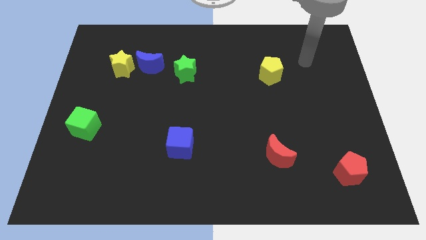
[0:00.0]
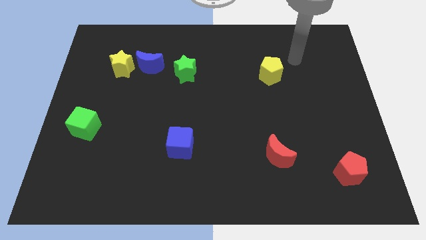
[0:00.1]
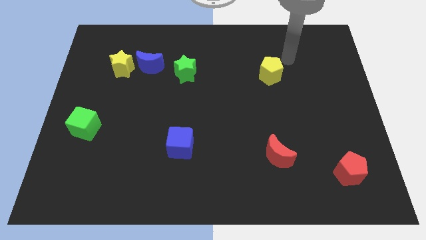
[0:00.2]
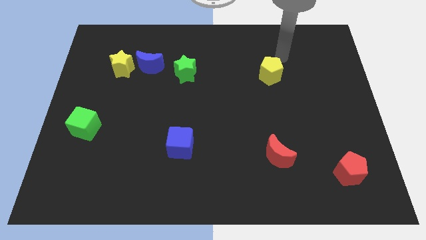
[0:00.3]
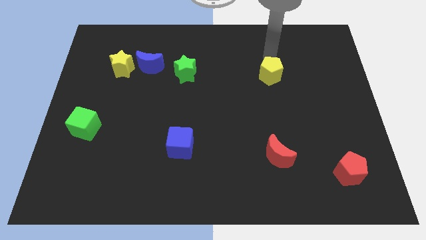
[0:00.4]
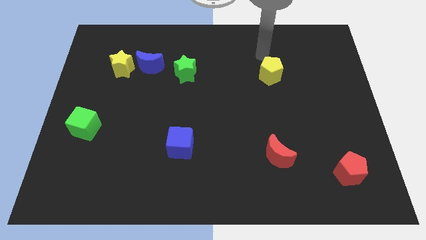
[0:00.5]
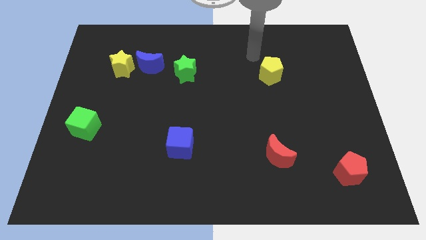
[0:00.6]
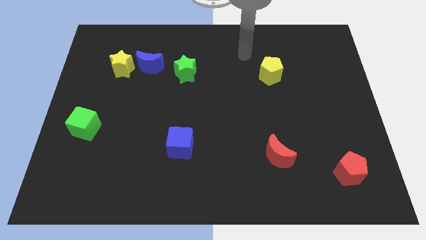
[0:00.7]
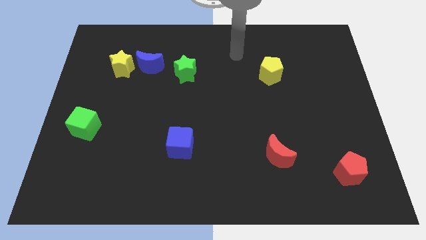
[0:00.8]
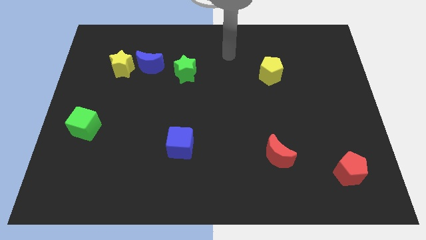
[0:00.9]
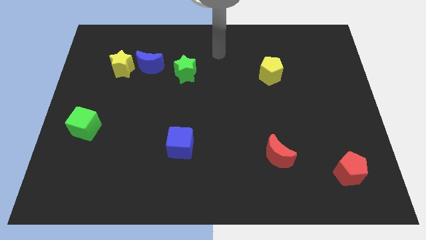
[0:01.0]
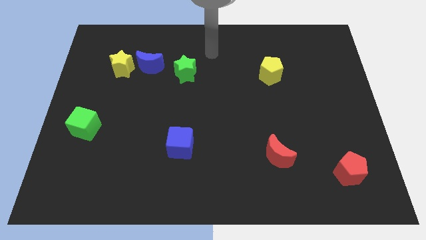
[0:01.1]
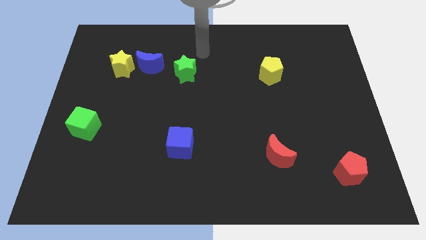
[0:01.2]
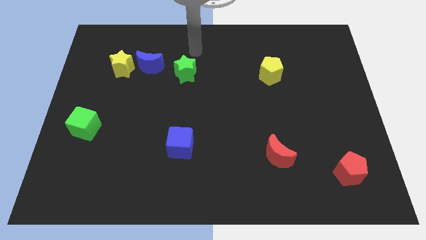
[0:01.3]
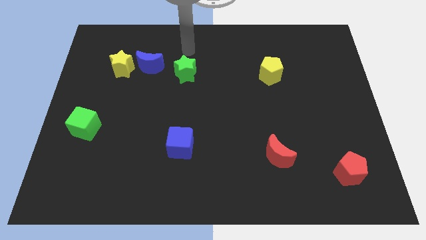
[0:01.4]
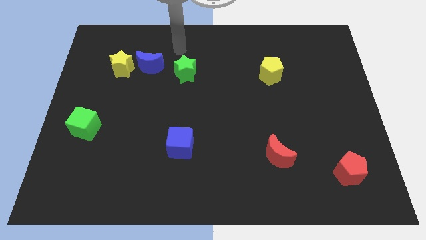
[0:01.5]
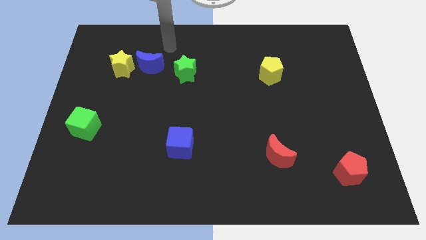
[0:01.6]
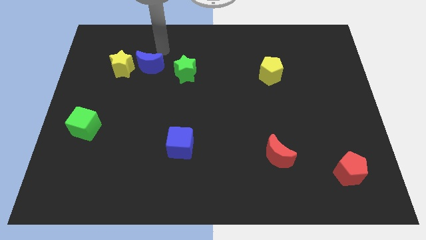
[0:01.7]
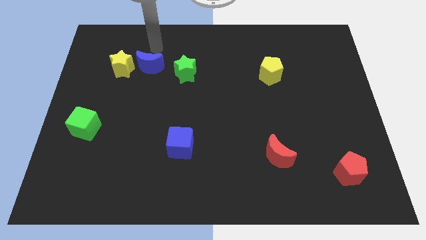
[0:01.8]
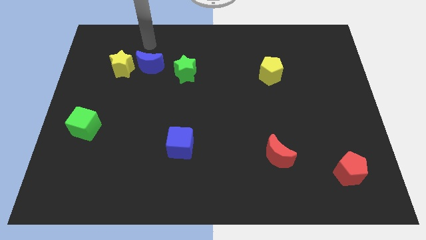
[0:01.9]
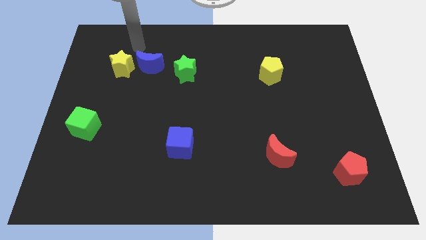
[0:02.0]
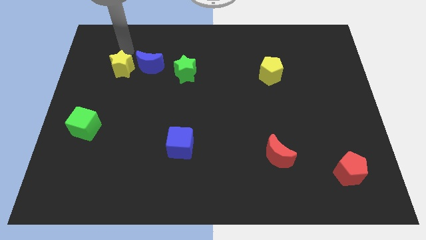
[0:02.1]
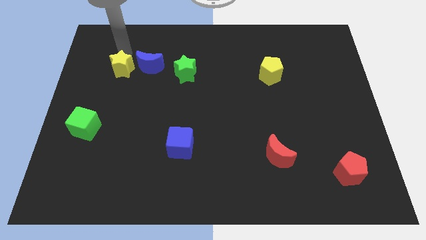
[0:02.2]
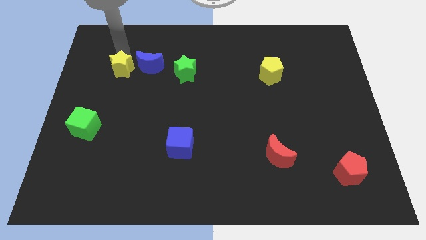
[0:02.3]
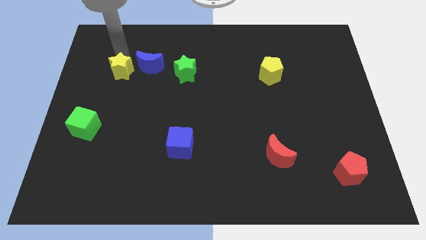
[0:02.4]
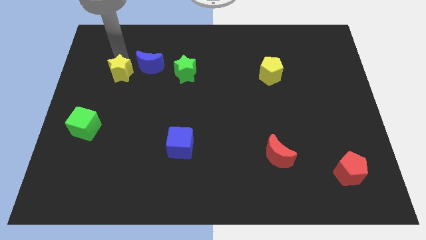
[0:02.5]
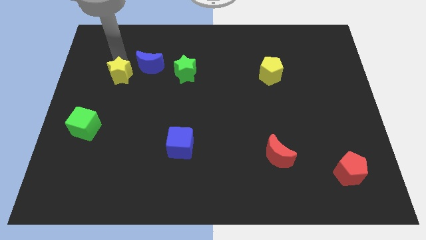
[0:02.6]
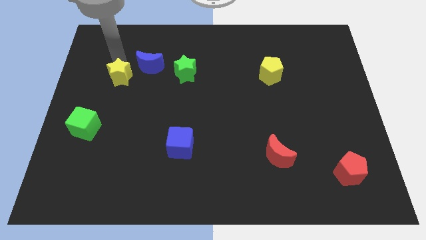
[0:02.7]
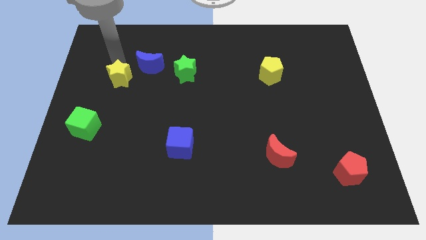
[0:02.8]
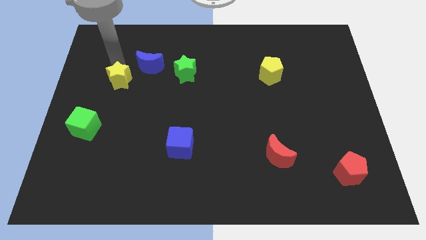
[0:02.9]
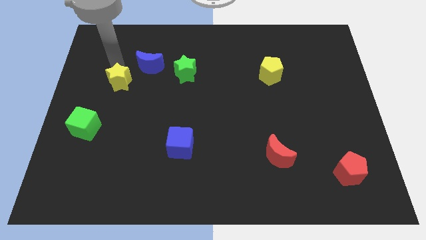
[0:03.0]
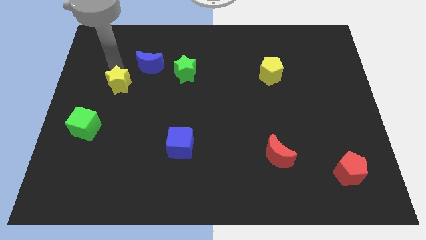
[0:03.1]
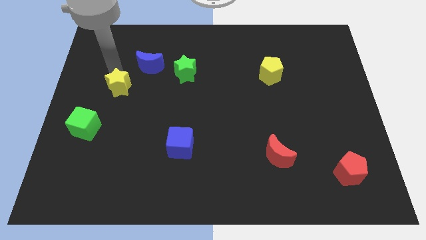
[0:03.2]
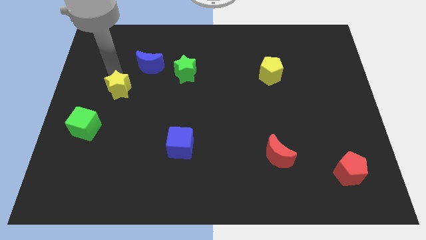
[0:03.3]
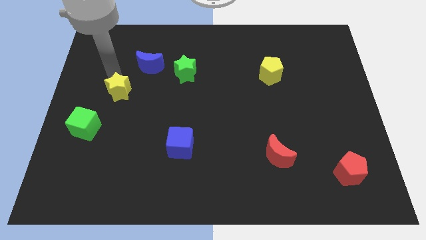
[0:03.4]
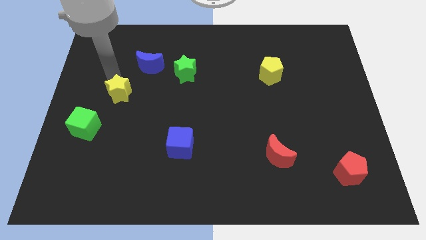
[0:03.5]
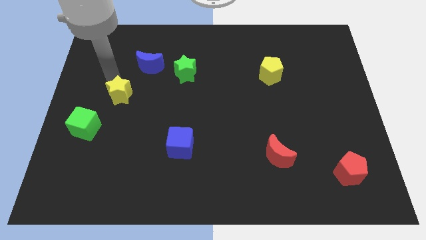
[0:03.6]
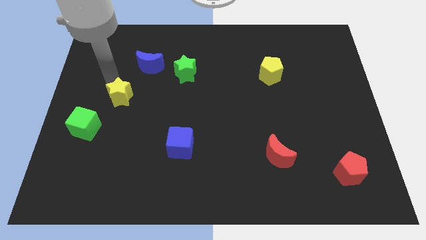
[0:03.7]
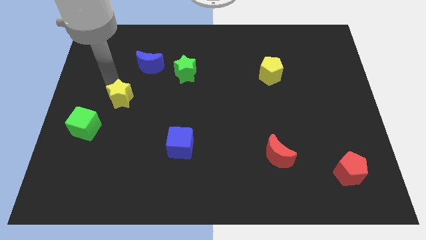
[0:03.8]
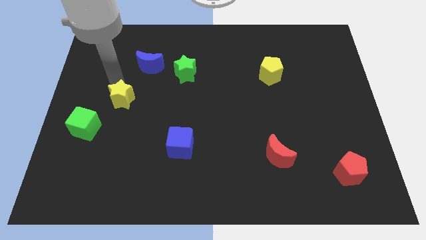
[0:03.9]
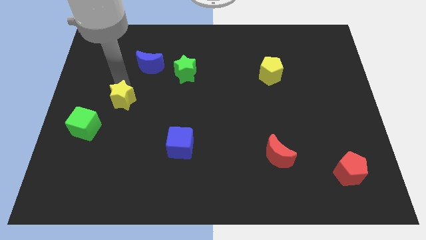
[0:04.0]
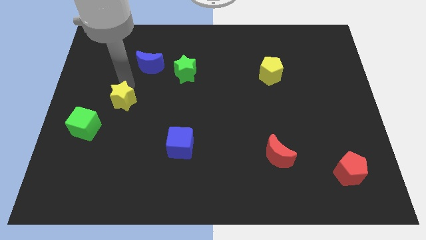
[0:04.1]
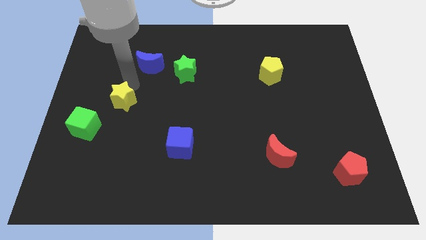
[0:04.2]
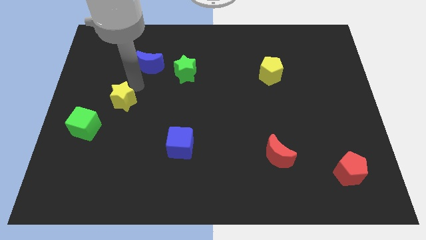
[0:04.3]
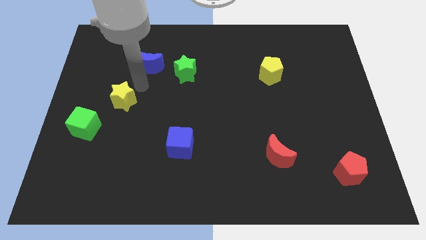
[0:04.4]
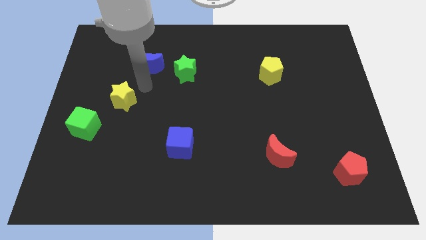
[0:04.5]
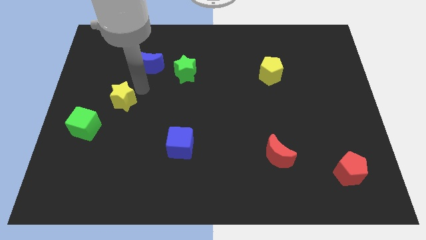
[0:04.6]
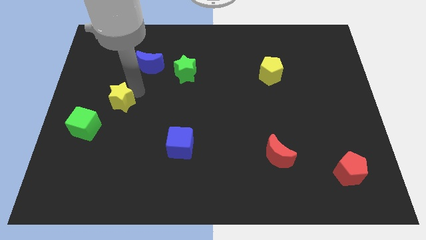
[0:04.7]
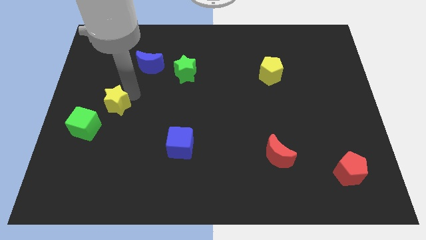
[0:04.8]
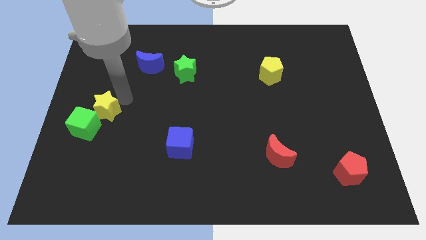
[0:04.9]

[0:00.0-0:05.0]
put the yellow star to the green cube

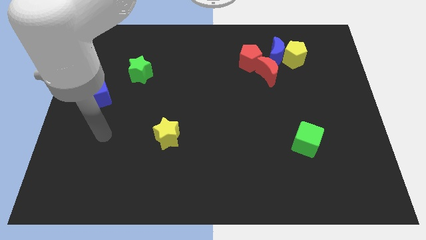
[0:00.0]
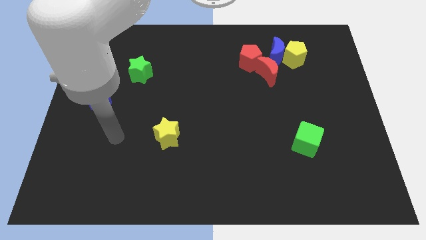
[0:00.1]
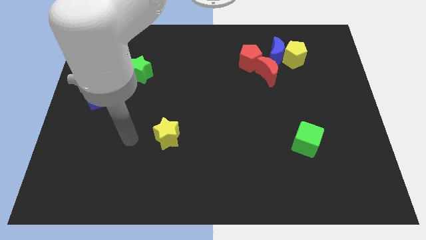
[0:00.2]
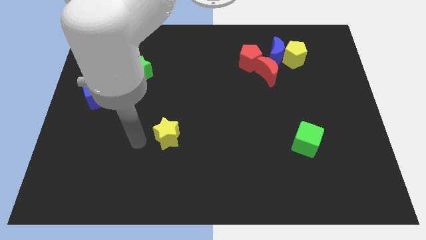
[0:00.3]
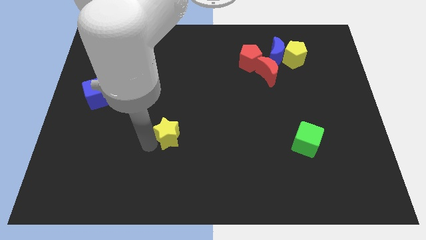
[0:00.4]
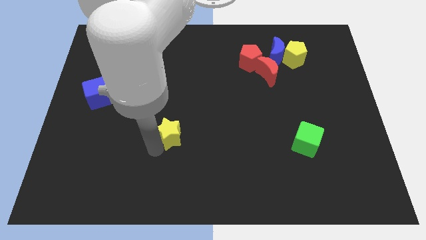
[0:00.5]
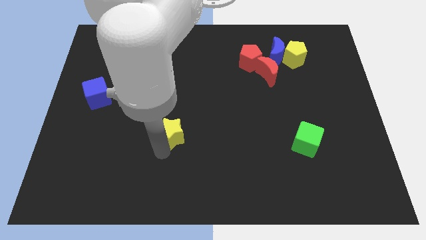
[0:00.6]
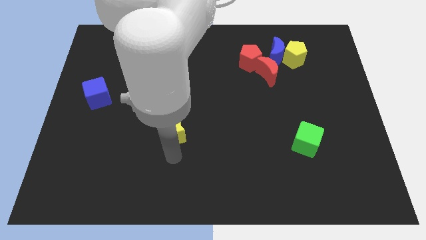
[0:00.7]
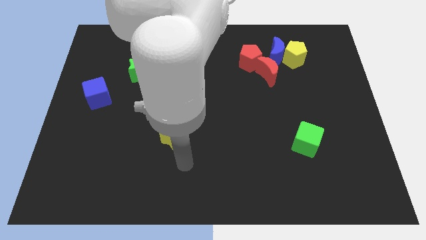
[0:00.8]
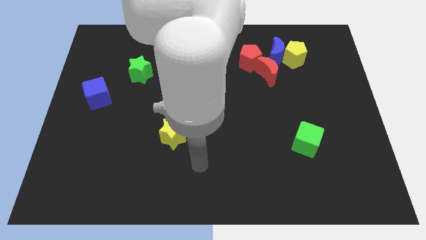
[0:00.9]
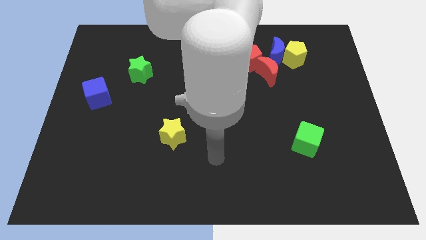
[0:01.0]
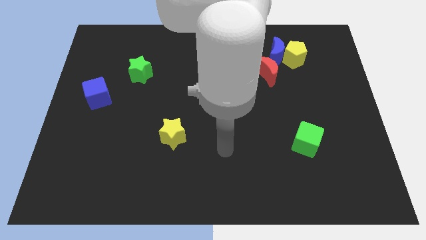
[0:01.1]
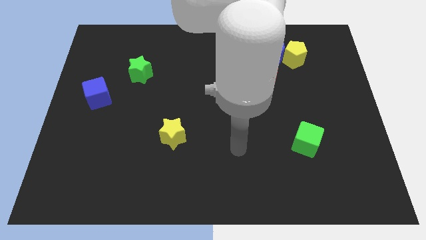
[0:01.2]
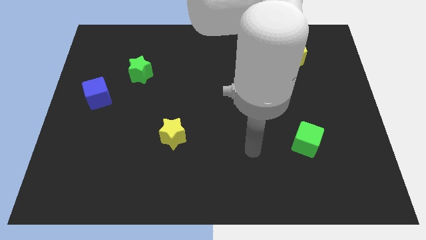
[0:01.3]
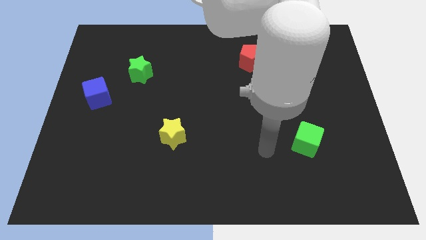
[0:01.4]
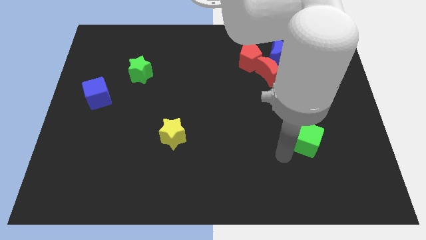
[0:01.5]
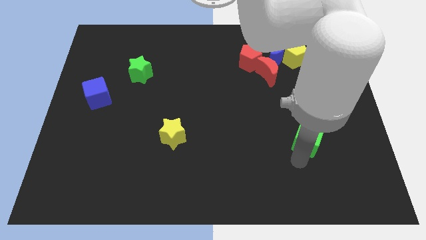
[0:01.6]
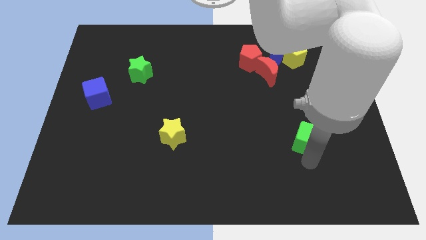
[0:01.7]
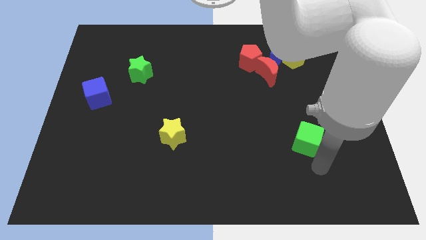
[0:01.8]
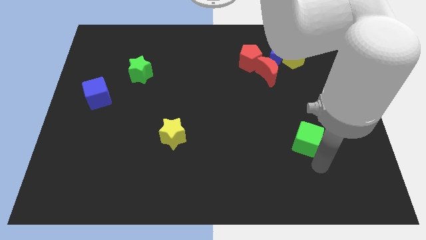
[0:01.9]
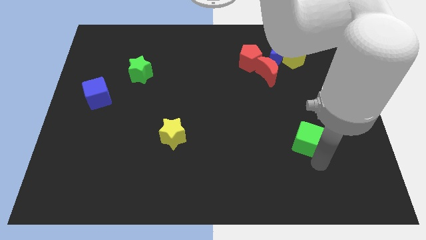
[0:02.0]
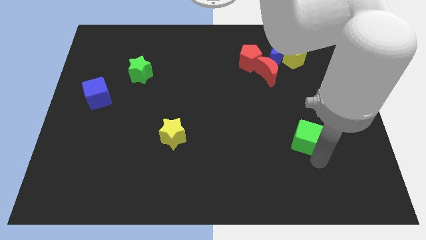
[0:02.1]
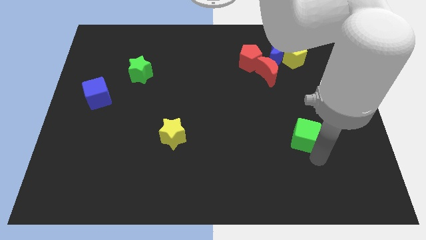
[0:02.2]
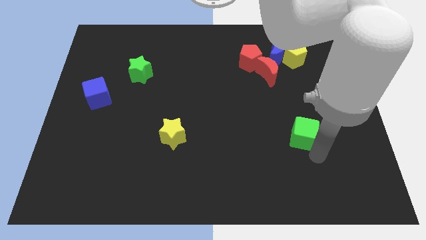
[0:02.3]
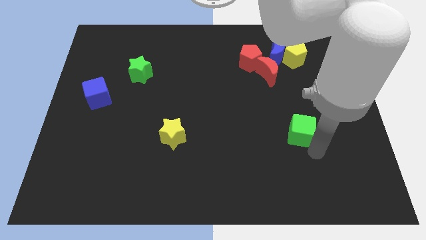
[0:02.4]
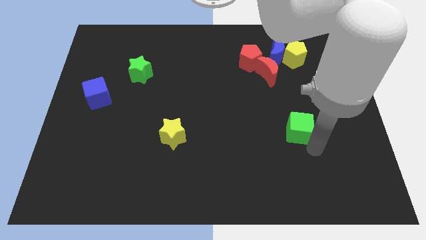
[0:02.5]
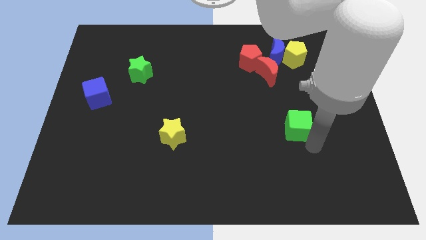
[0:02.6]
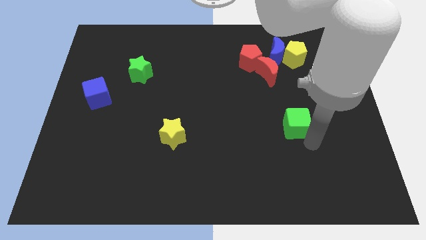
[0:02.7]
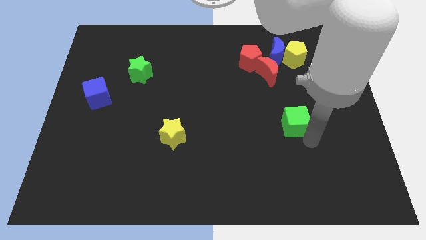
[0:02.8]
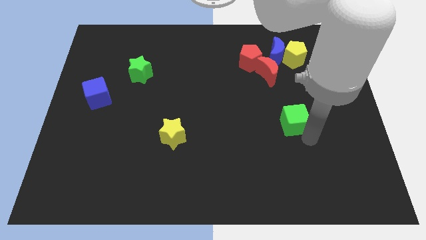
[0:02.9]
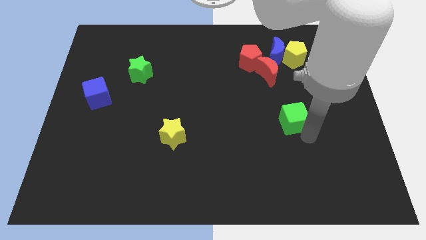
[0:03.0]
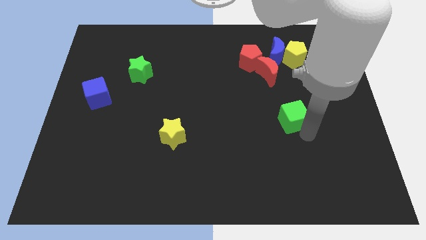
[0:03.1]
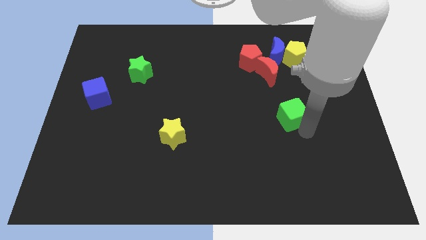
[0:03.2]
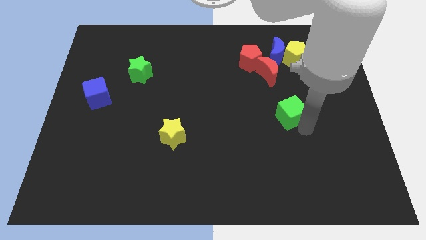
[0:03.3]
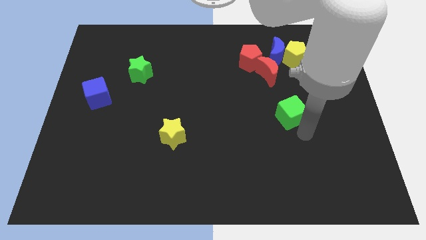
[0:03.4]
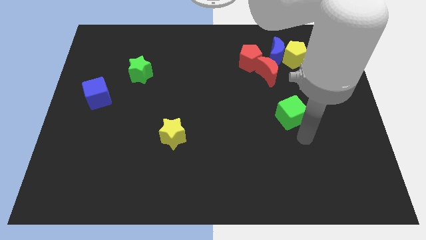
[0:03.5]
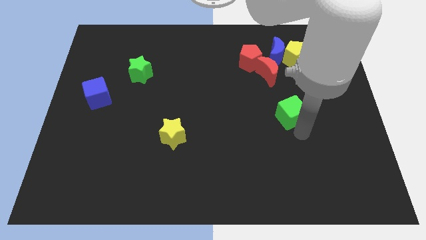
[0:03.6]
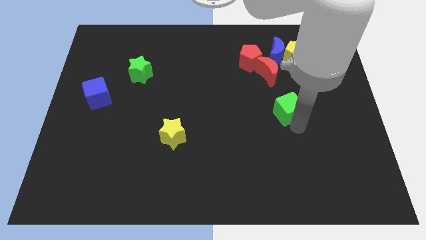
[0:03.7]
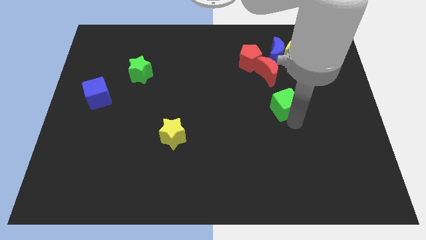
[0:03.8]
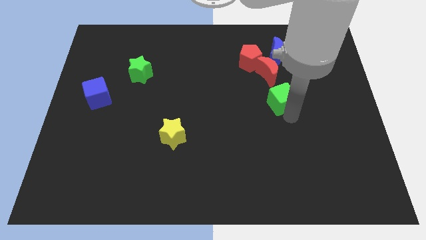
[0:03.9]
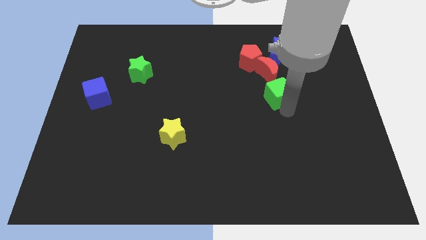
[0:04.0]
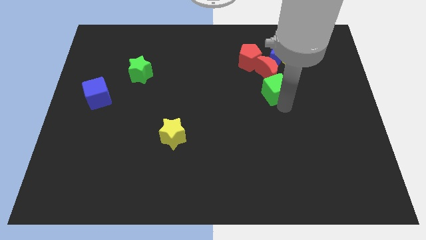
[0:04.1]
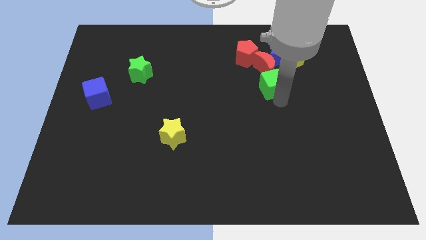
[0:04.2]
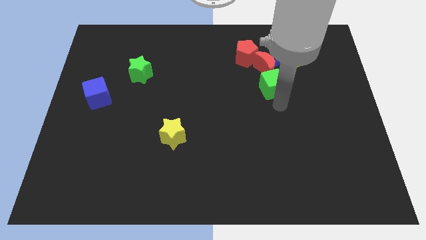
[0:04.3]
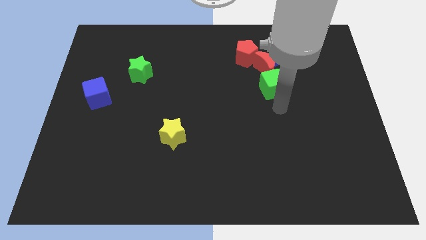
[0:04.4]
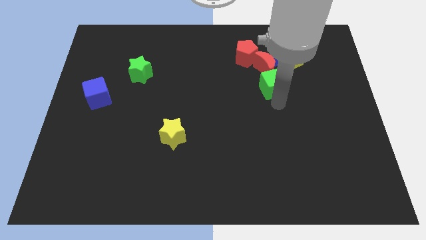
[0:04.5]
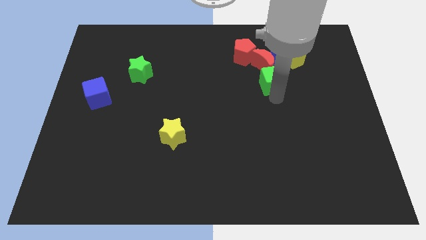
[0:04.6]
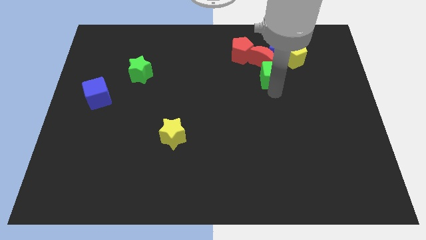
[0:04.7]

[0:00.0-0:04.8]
slide the green cube close to the red moon
